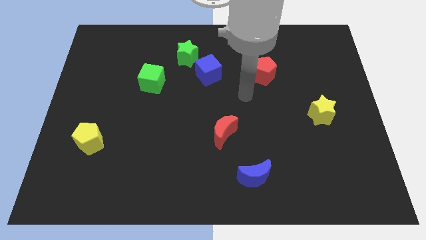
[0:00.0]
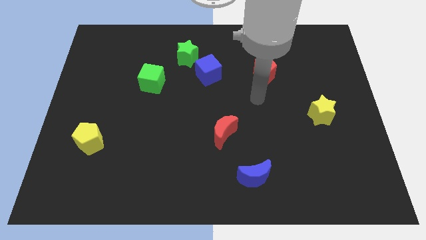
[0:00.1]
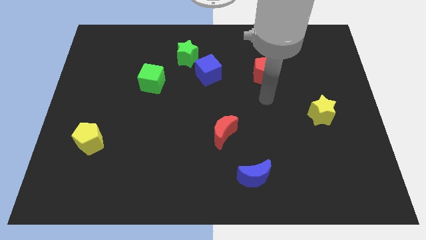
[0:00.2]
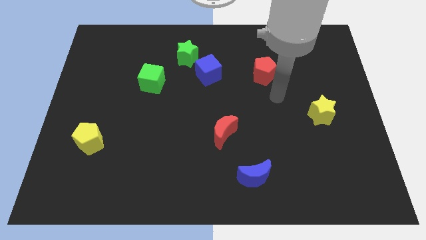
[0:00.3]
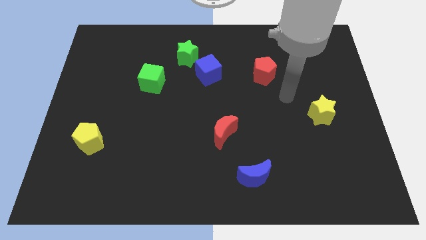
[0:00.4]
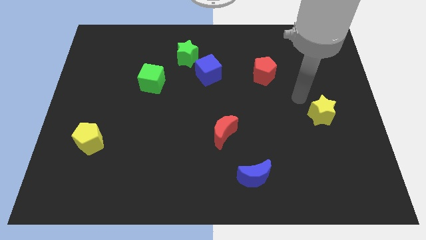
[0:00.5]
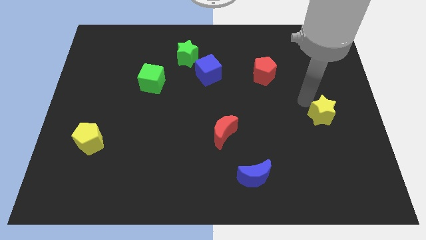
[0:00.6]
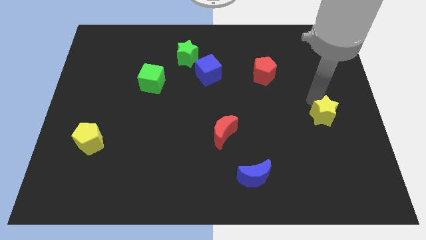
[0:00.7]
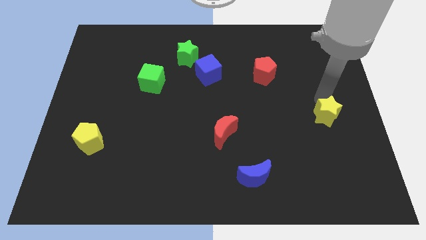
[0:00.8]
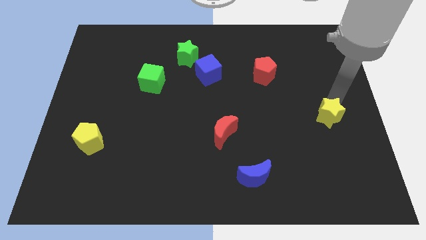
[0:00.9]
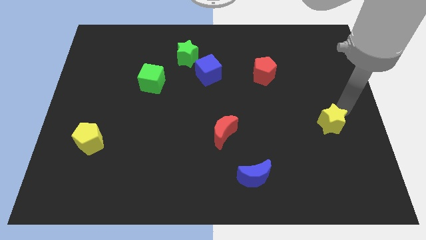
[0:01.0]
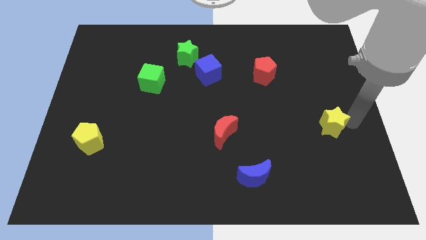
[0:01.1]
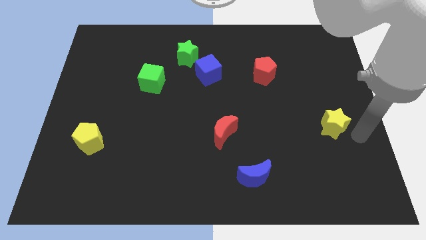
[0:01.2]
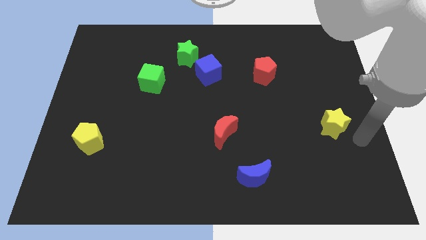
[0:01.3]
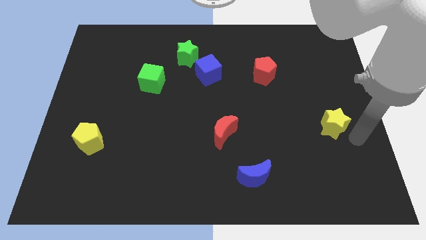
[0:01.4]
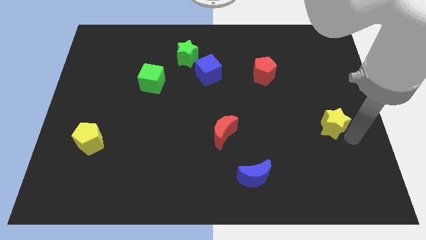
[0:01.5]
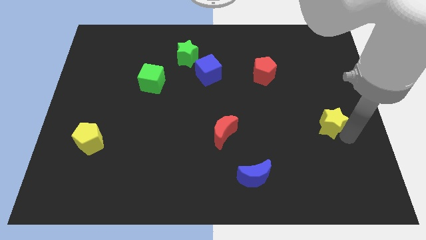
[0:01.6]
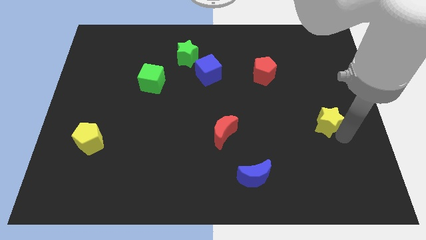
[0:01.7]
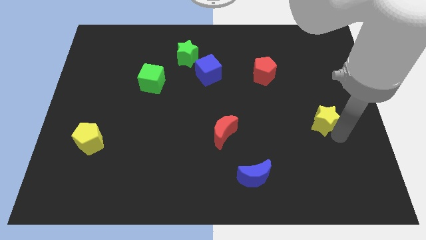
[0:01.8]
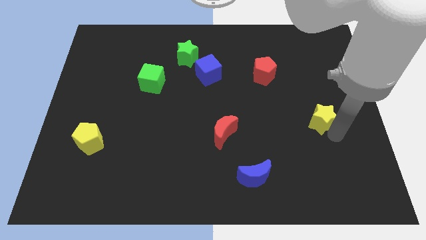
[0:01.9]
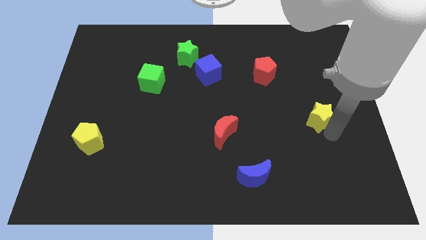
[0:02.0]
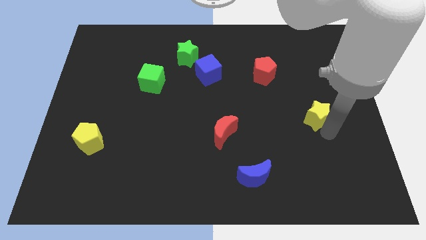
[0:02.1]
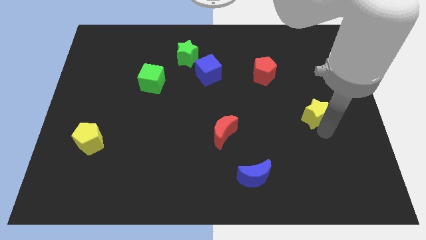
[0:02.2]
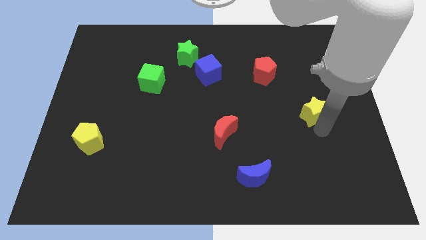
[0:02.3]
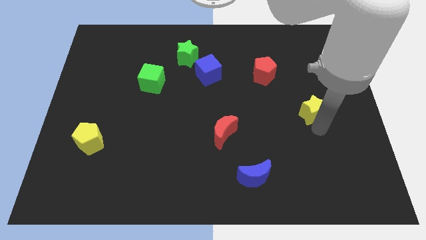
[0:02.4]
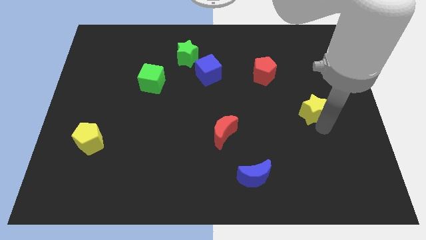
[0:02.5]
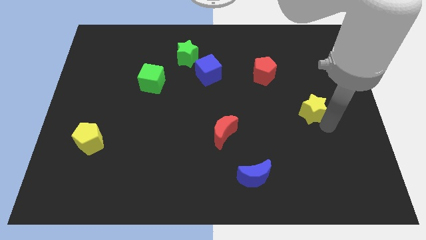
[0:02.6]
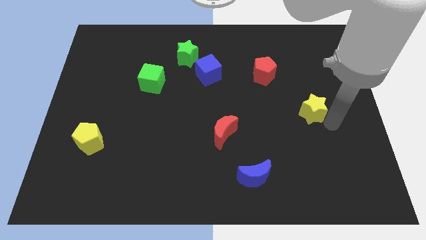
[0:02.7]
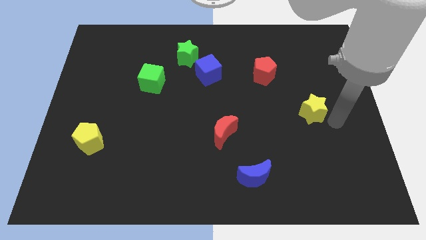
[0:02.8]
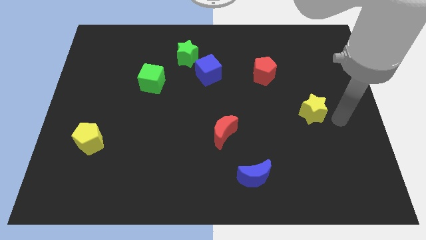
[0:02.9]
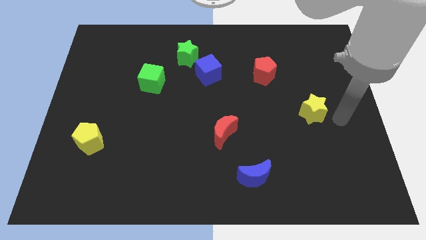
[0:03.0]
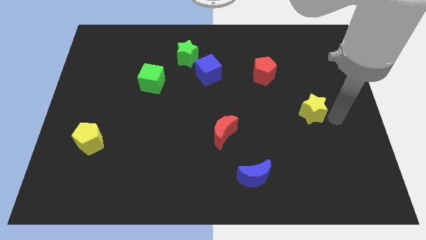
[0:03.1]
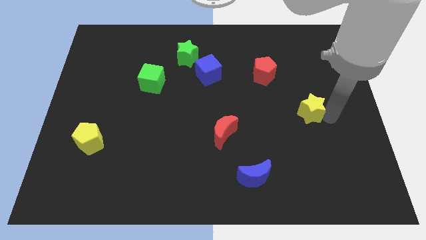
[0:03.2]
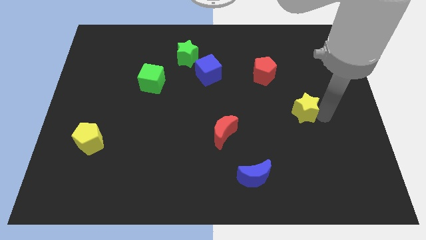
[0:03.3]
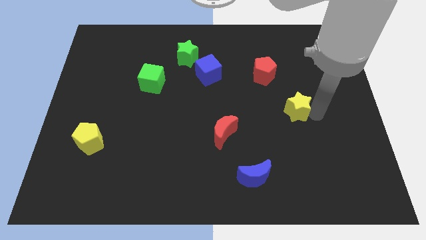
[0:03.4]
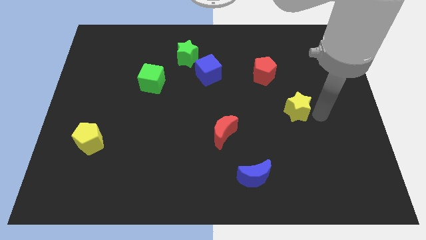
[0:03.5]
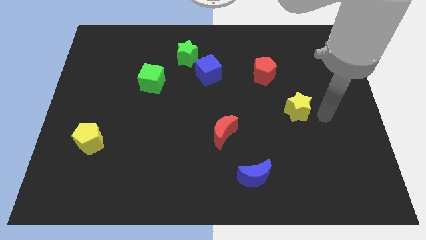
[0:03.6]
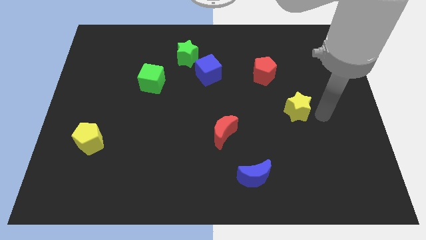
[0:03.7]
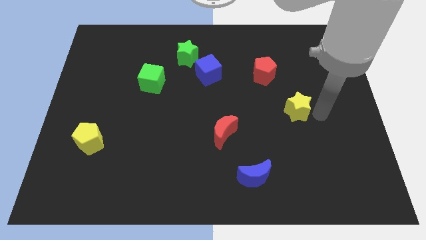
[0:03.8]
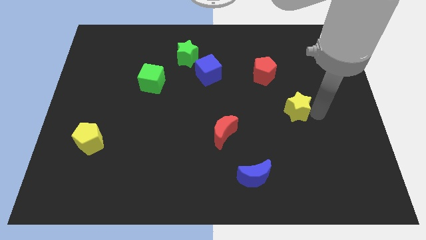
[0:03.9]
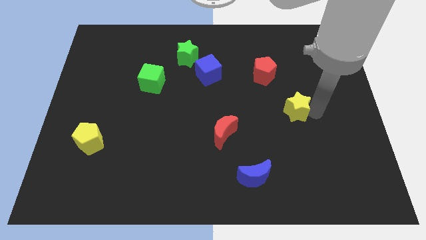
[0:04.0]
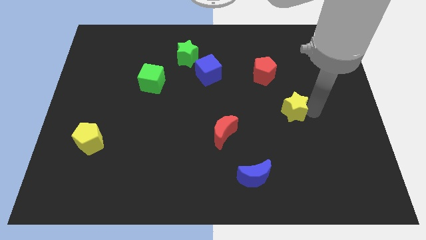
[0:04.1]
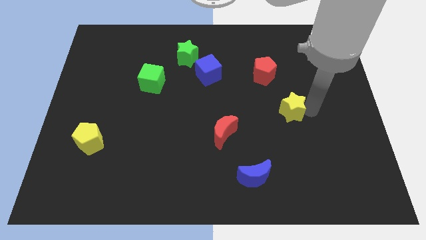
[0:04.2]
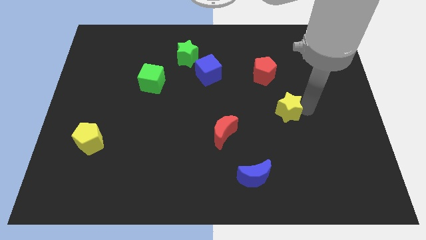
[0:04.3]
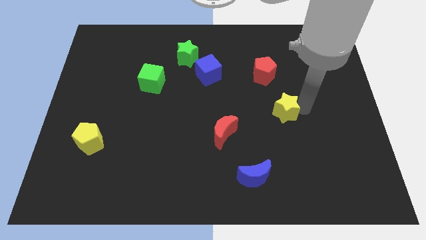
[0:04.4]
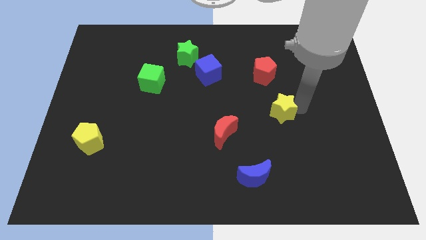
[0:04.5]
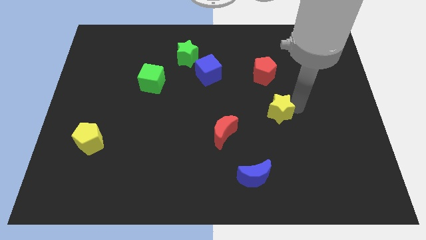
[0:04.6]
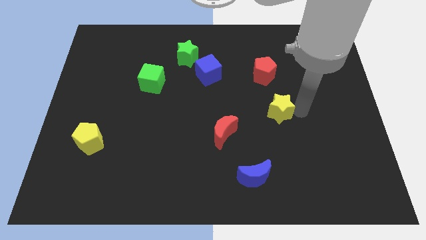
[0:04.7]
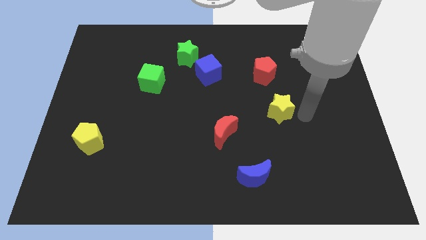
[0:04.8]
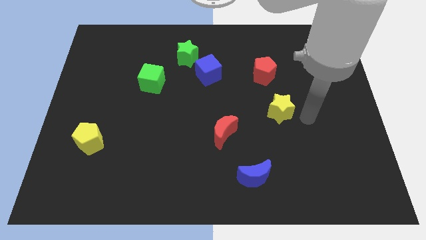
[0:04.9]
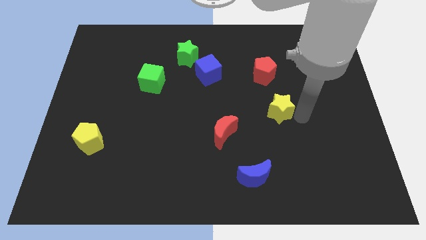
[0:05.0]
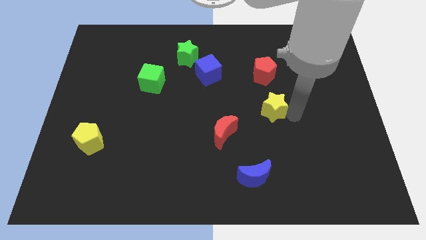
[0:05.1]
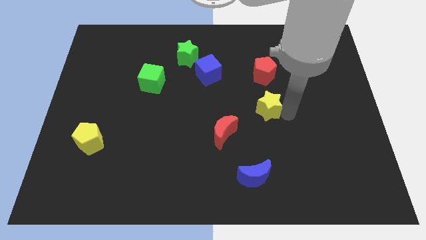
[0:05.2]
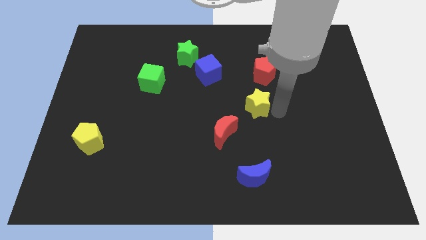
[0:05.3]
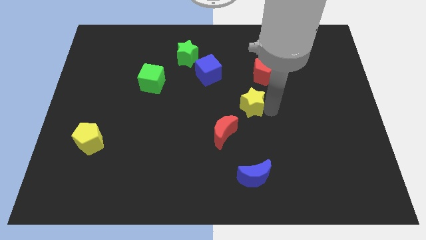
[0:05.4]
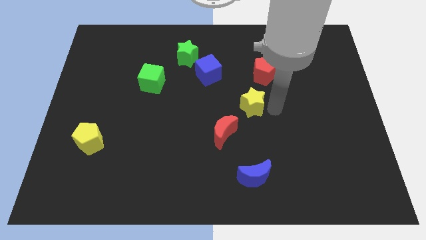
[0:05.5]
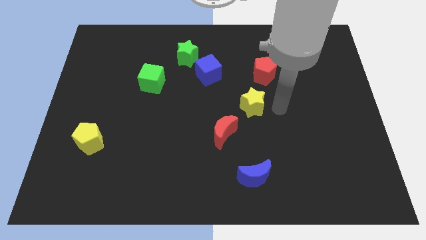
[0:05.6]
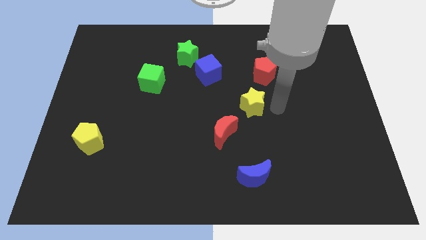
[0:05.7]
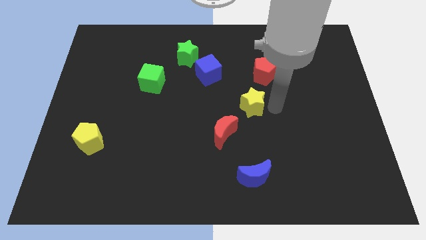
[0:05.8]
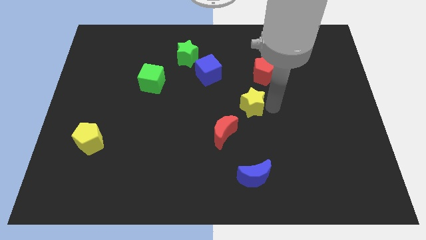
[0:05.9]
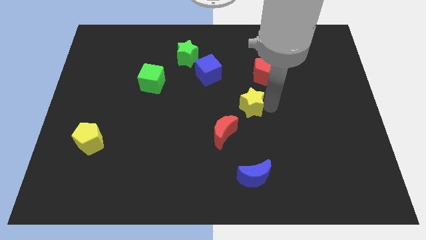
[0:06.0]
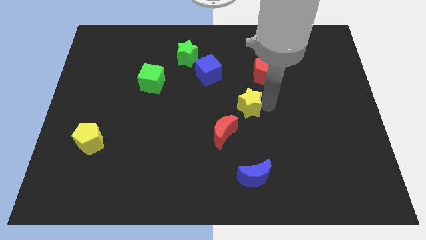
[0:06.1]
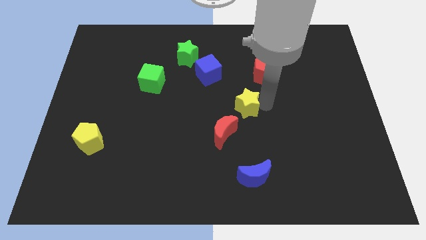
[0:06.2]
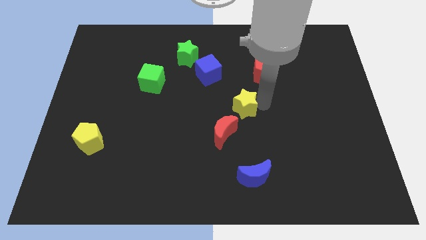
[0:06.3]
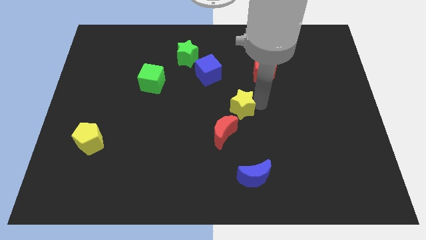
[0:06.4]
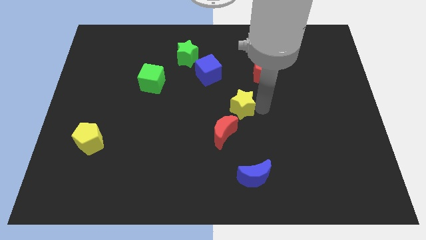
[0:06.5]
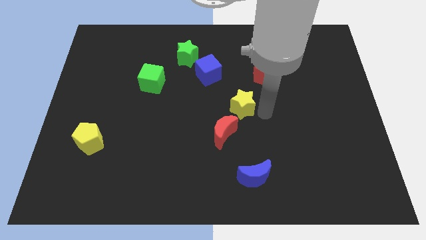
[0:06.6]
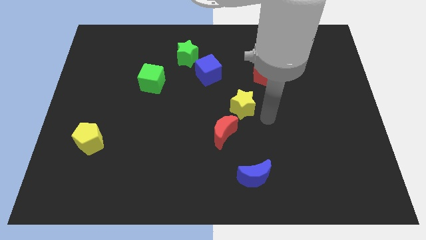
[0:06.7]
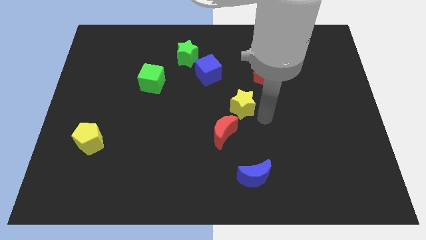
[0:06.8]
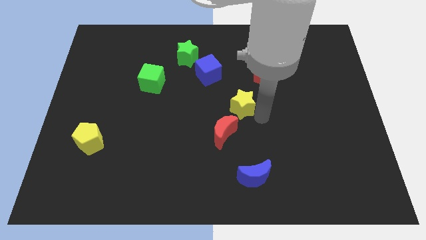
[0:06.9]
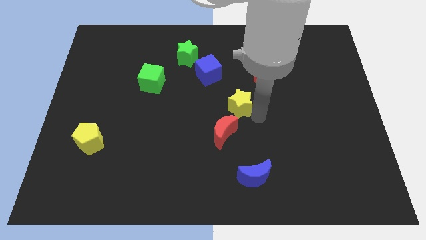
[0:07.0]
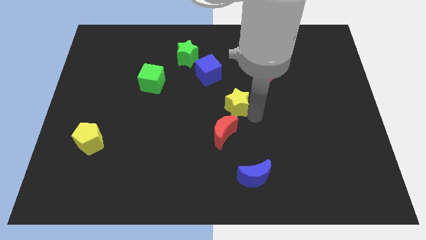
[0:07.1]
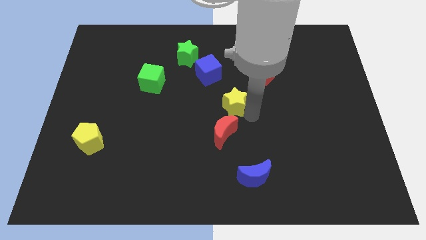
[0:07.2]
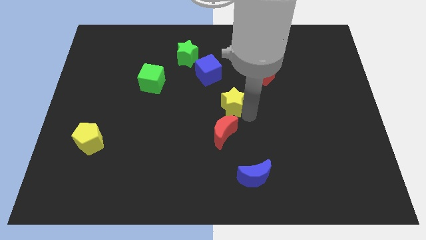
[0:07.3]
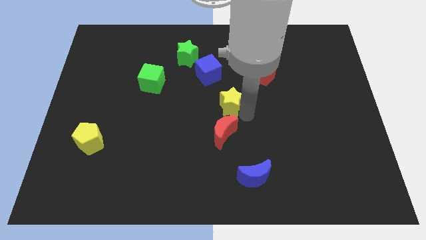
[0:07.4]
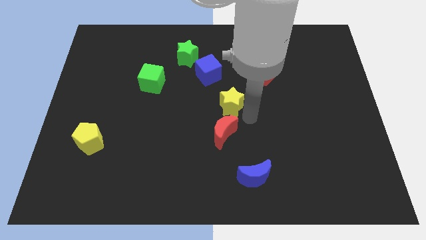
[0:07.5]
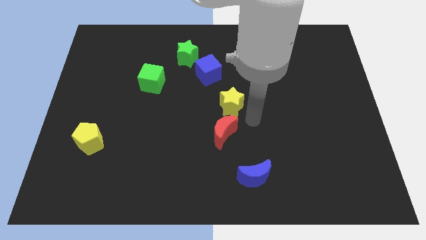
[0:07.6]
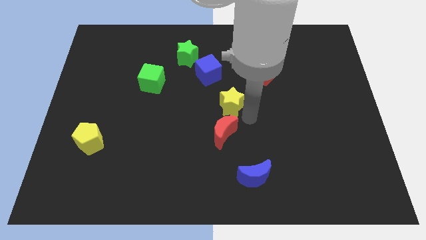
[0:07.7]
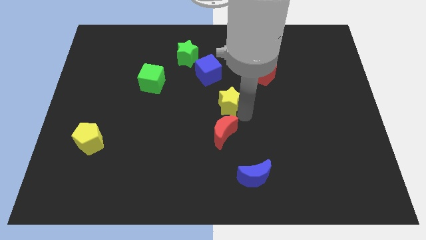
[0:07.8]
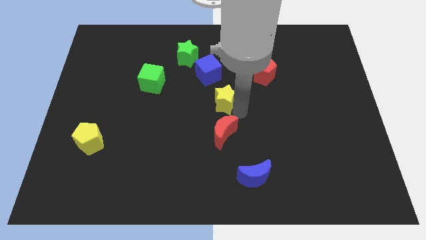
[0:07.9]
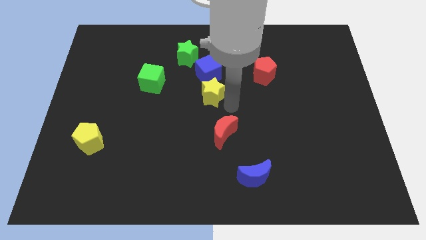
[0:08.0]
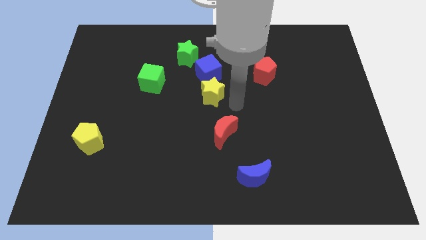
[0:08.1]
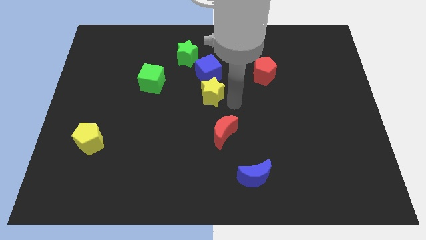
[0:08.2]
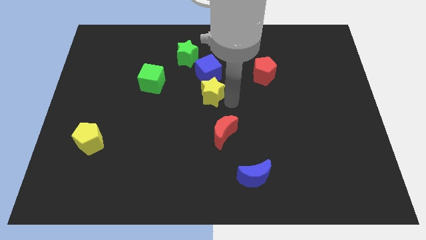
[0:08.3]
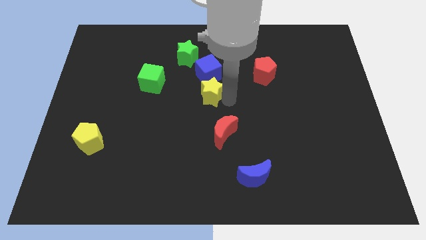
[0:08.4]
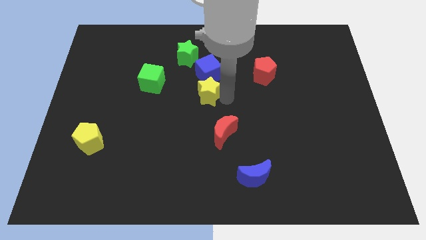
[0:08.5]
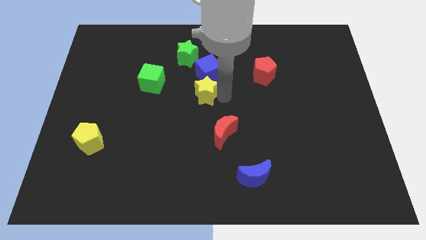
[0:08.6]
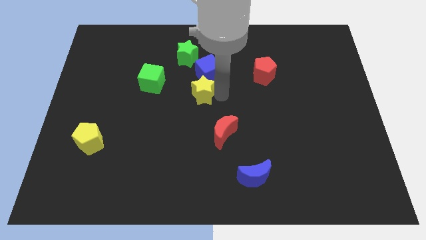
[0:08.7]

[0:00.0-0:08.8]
push the yellow star to the bottom side of the green star
